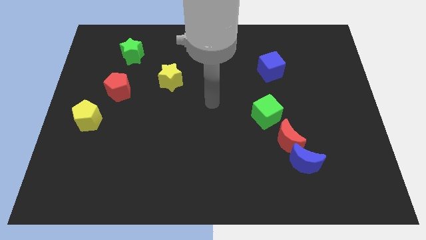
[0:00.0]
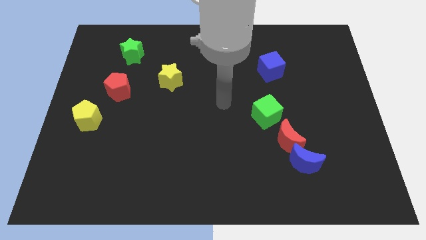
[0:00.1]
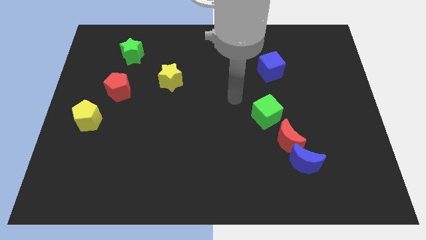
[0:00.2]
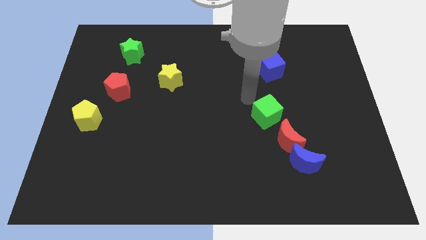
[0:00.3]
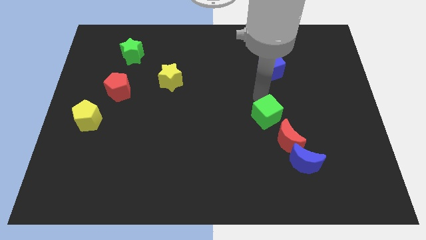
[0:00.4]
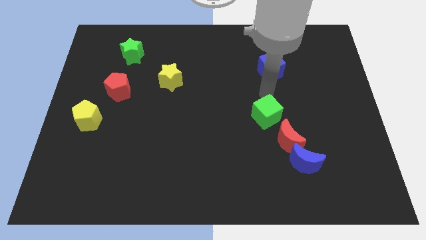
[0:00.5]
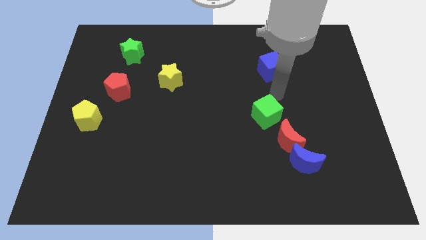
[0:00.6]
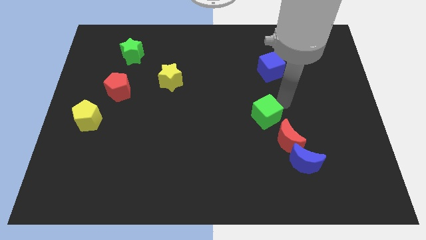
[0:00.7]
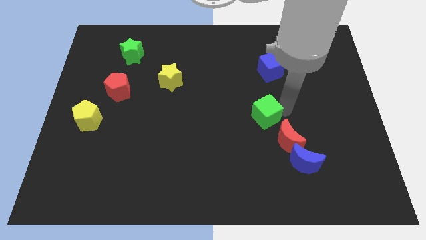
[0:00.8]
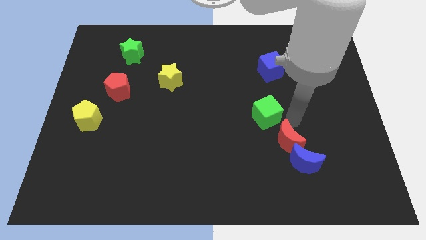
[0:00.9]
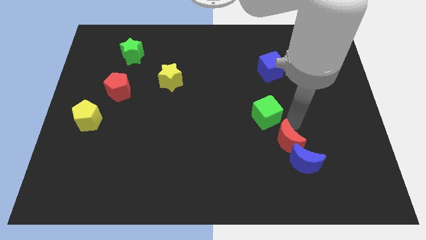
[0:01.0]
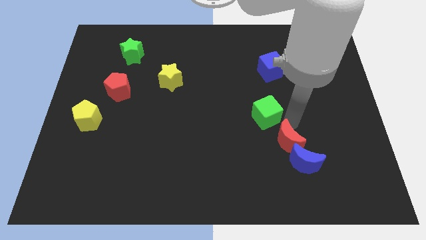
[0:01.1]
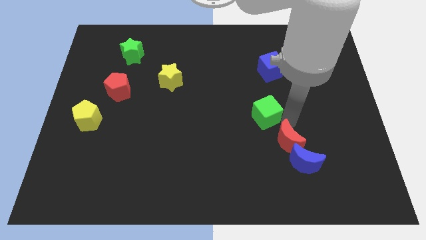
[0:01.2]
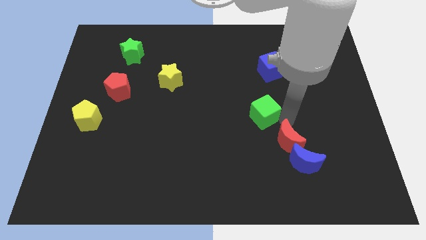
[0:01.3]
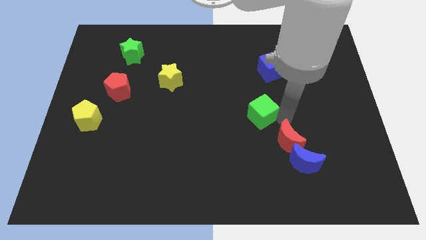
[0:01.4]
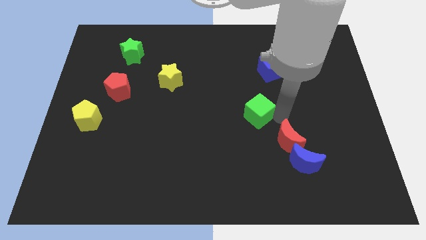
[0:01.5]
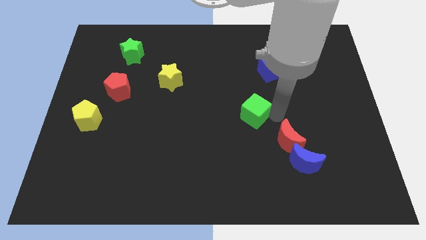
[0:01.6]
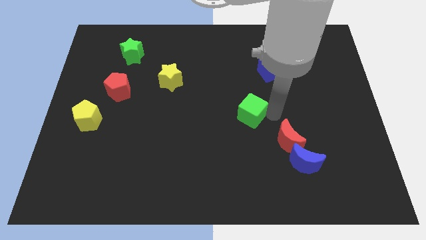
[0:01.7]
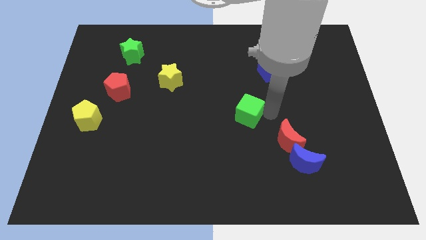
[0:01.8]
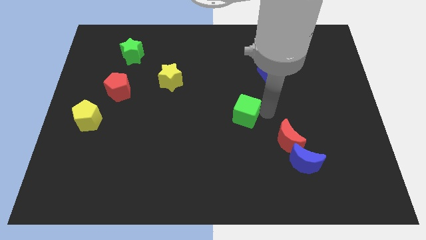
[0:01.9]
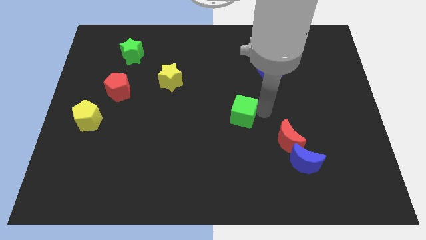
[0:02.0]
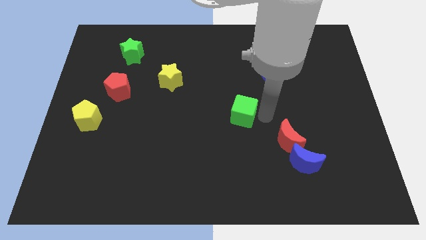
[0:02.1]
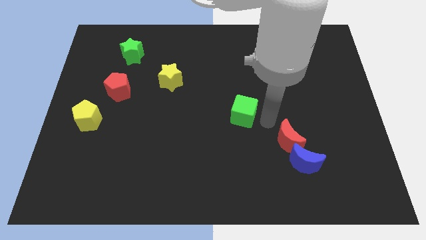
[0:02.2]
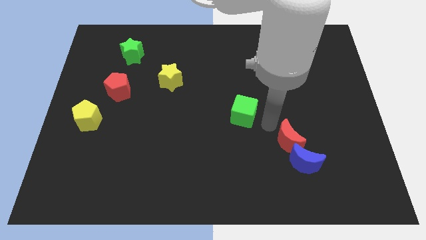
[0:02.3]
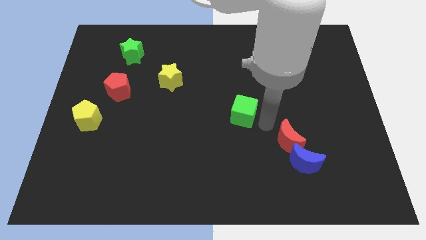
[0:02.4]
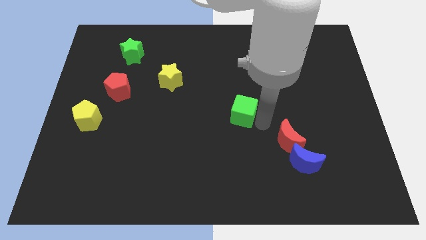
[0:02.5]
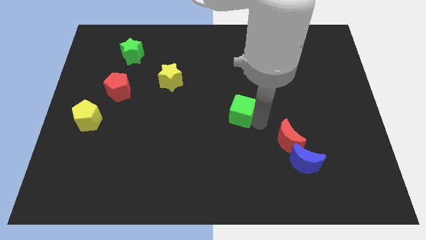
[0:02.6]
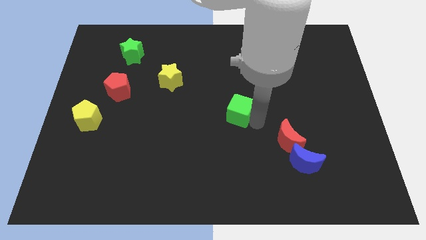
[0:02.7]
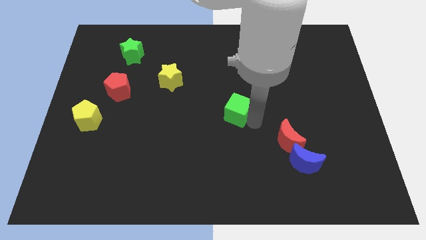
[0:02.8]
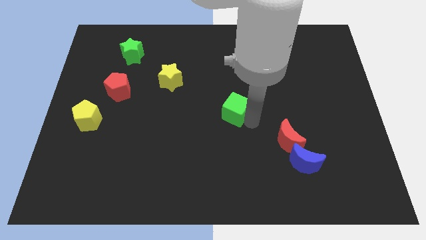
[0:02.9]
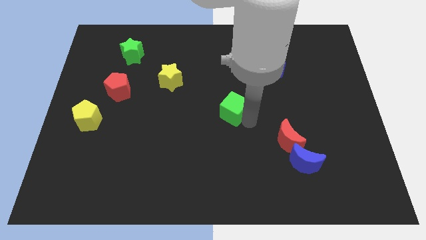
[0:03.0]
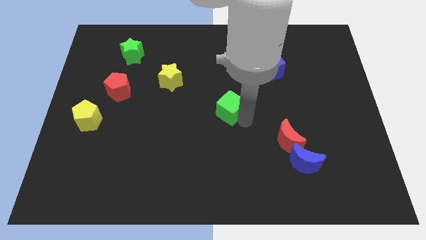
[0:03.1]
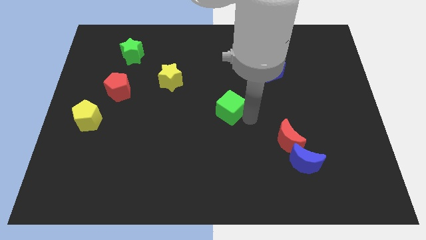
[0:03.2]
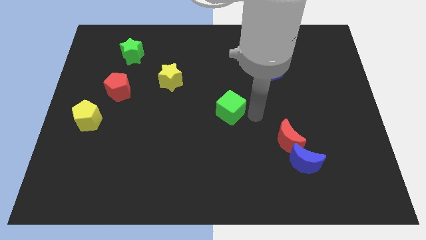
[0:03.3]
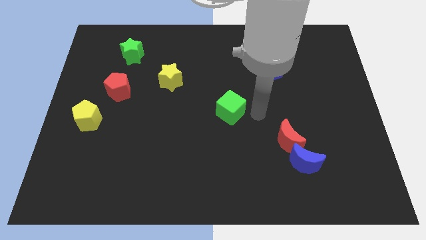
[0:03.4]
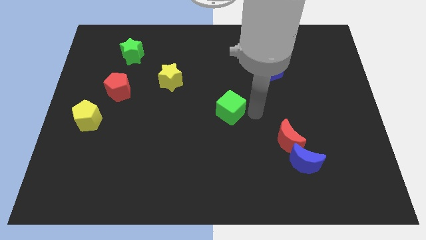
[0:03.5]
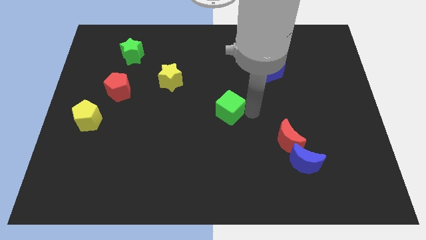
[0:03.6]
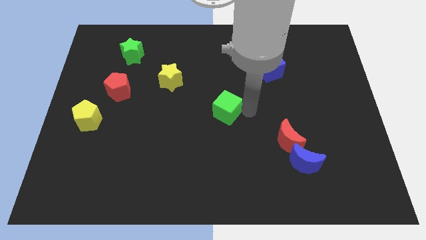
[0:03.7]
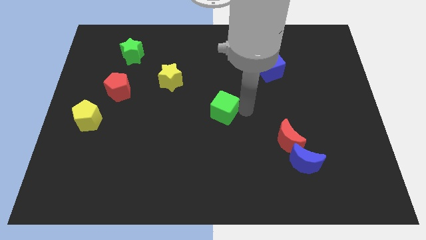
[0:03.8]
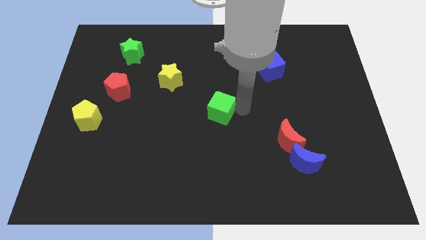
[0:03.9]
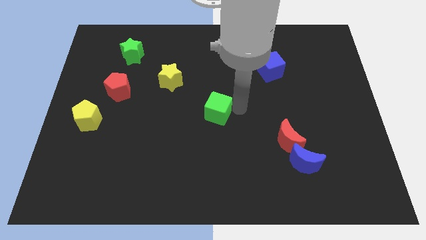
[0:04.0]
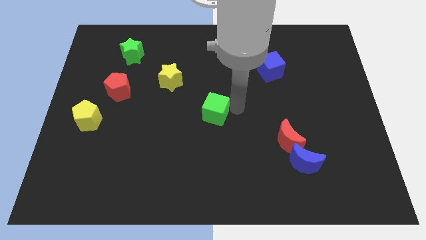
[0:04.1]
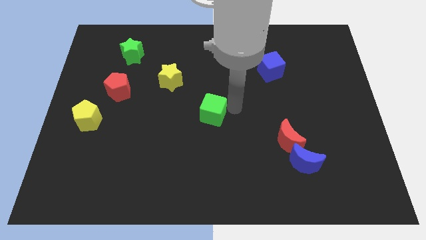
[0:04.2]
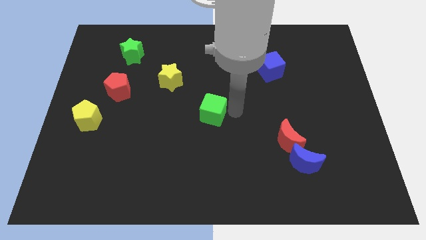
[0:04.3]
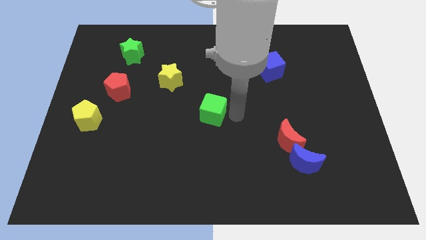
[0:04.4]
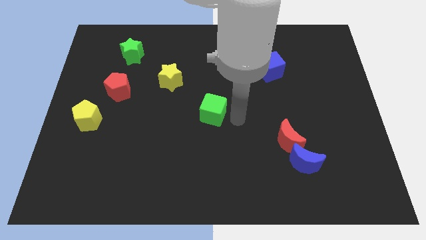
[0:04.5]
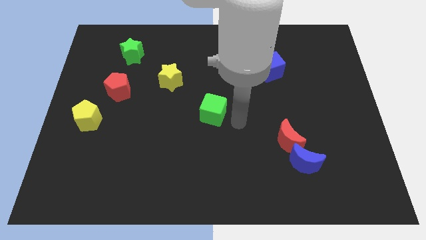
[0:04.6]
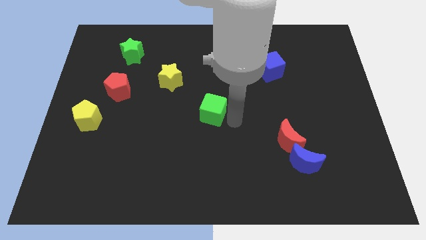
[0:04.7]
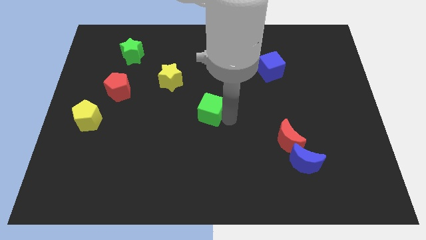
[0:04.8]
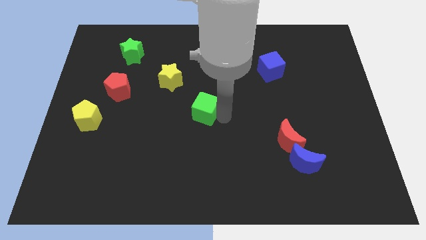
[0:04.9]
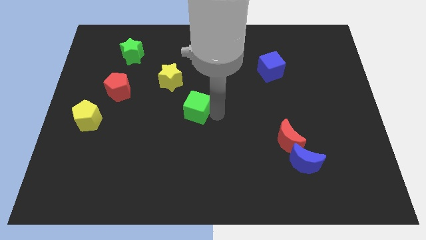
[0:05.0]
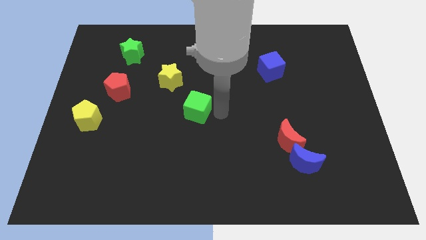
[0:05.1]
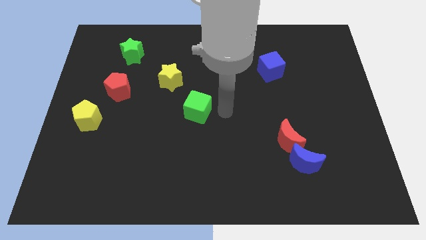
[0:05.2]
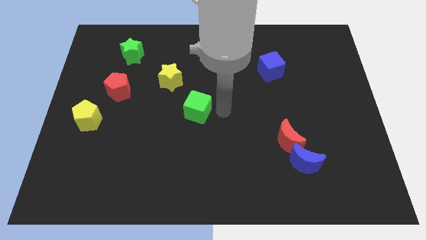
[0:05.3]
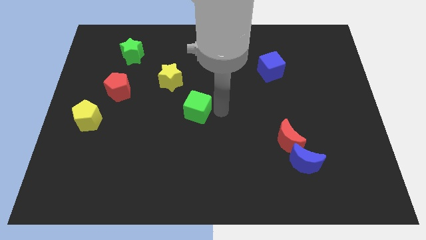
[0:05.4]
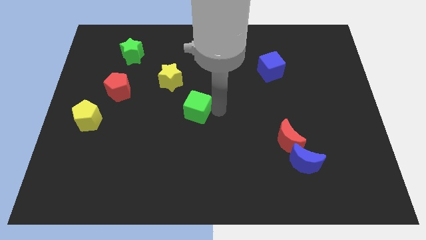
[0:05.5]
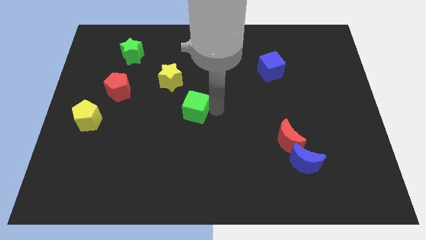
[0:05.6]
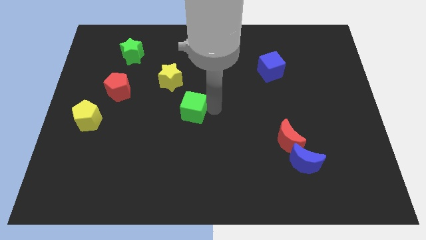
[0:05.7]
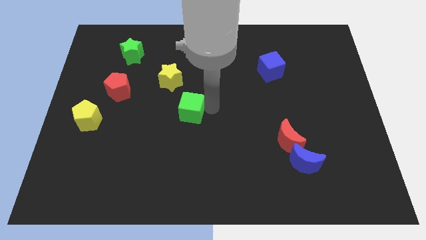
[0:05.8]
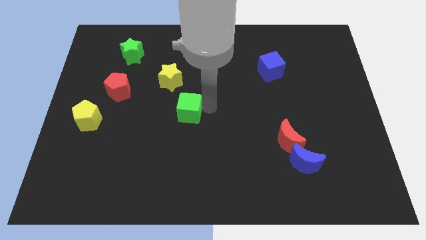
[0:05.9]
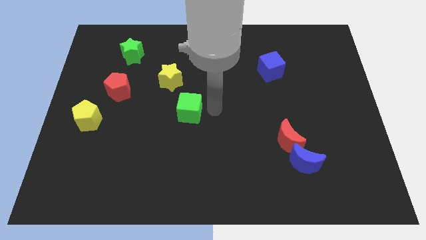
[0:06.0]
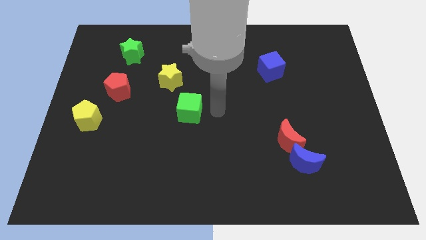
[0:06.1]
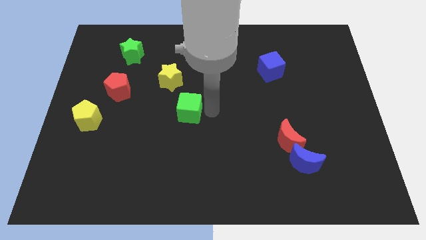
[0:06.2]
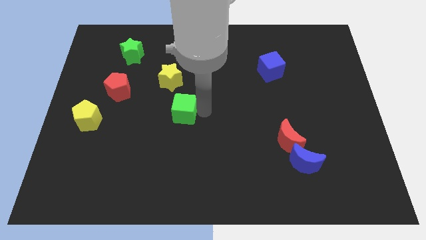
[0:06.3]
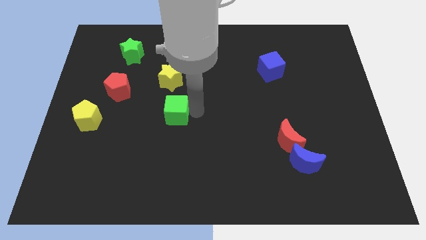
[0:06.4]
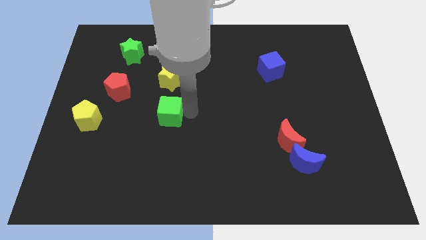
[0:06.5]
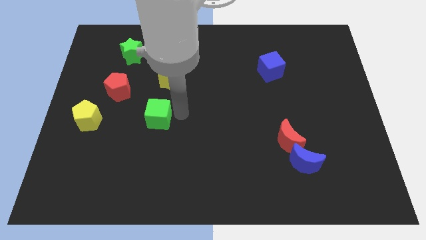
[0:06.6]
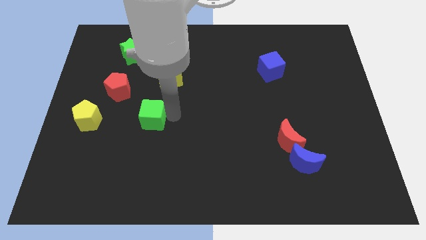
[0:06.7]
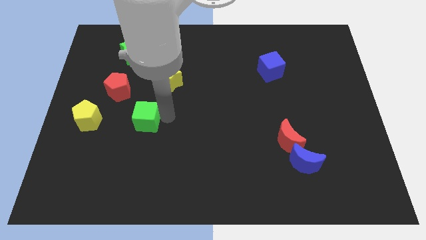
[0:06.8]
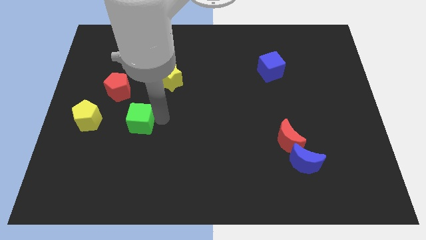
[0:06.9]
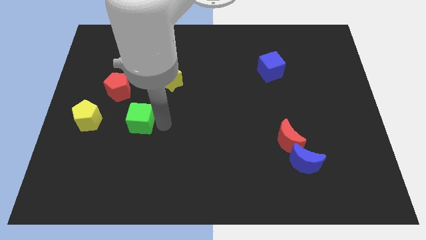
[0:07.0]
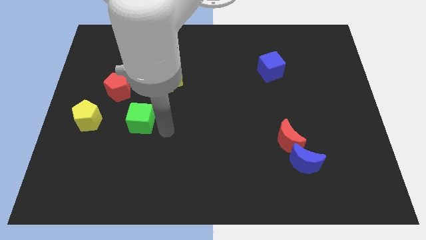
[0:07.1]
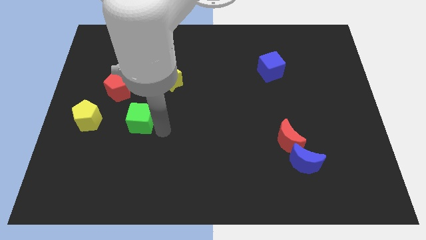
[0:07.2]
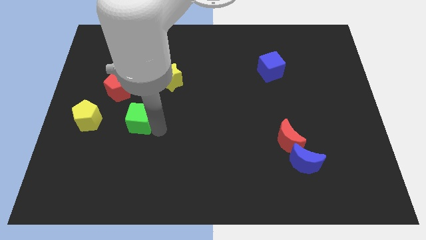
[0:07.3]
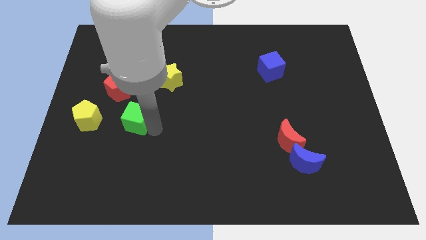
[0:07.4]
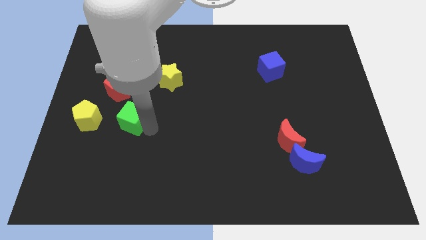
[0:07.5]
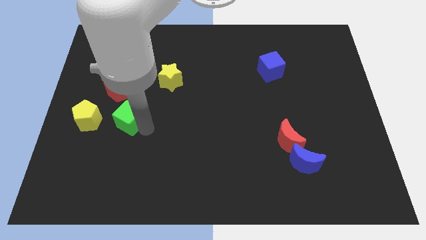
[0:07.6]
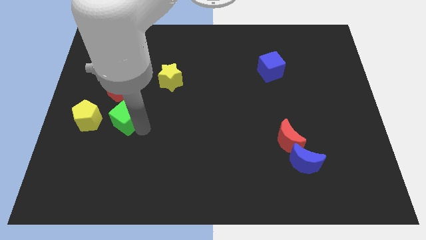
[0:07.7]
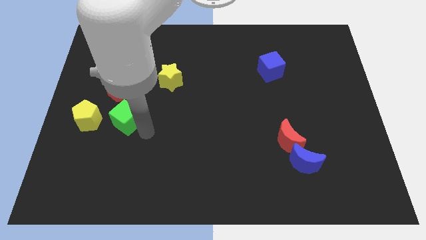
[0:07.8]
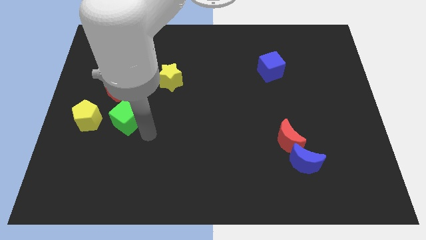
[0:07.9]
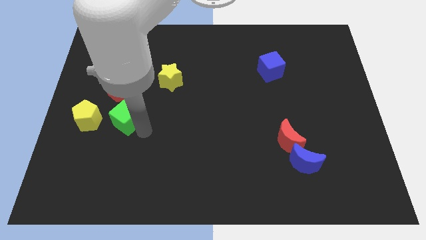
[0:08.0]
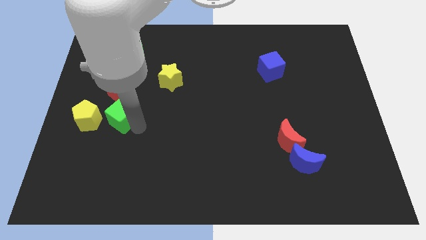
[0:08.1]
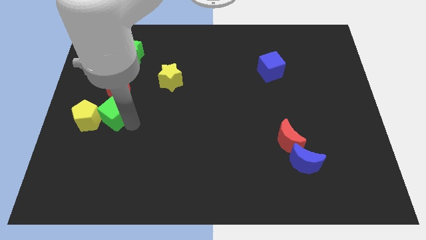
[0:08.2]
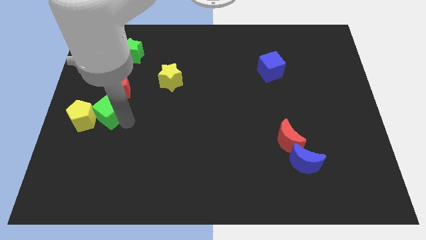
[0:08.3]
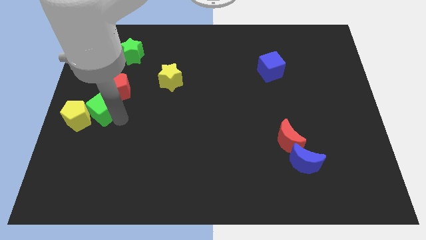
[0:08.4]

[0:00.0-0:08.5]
push the green cube to the left side
